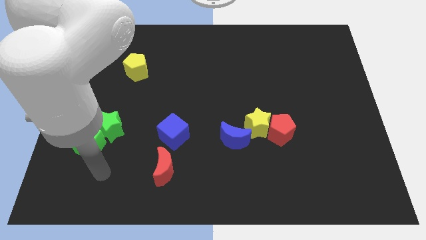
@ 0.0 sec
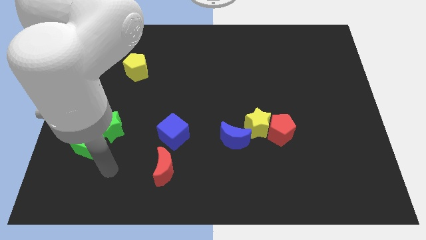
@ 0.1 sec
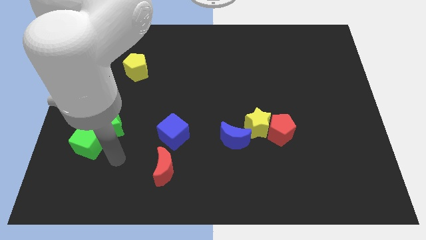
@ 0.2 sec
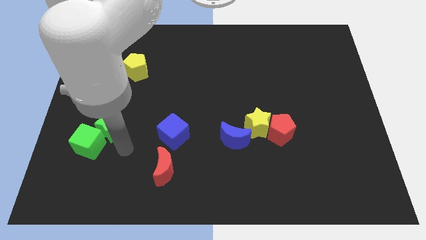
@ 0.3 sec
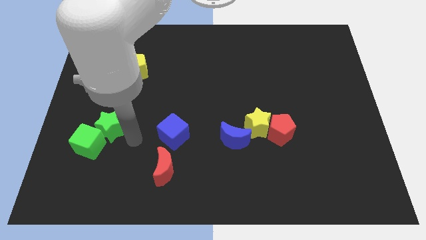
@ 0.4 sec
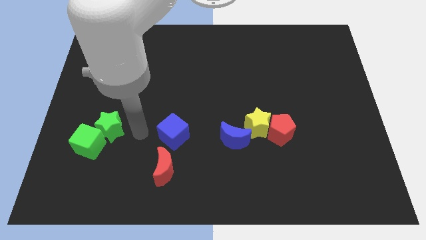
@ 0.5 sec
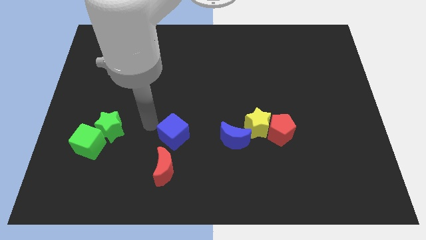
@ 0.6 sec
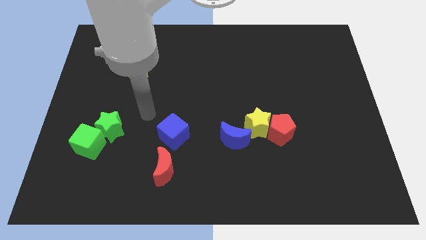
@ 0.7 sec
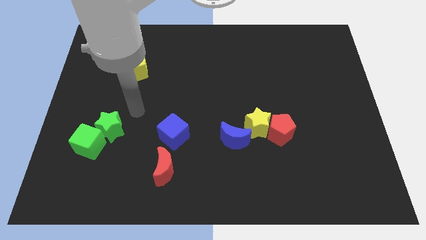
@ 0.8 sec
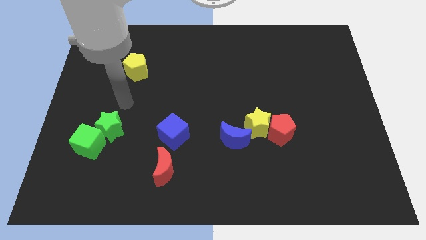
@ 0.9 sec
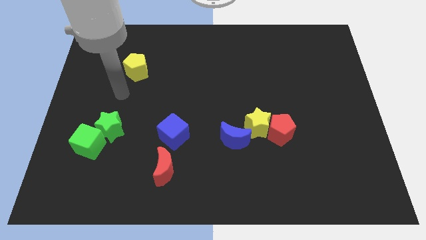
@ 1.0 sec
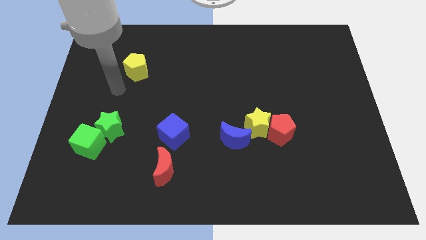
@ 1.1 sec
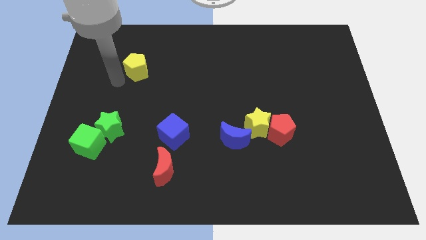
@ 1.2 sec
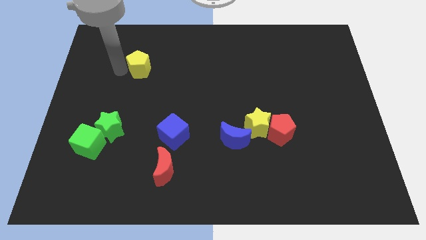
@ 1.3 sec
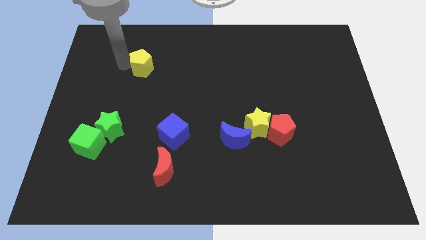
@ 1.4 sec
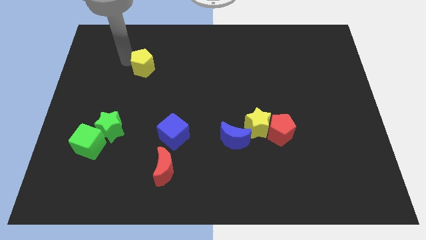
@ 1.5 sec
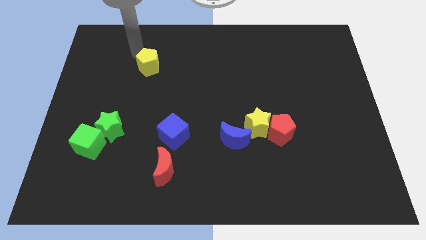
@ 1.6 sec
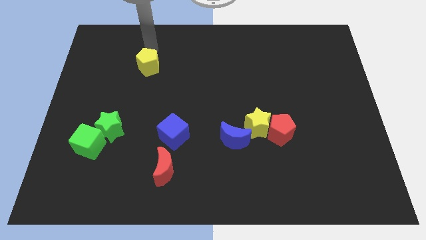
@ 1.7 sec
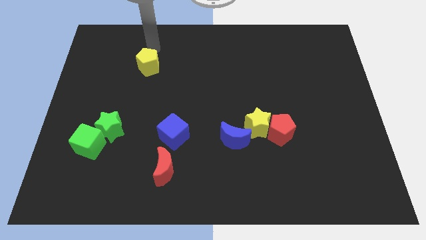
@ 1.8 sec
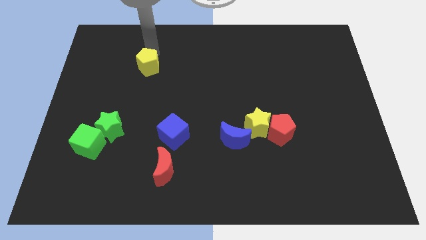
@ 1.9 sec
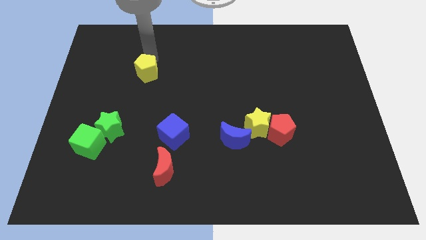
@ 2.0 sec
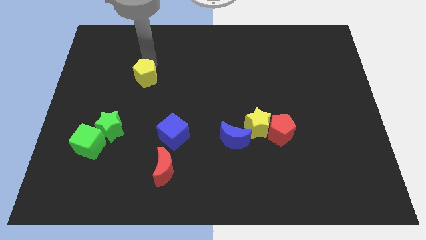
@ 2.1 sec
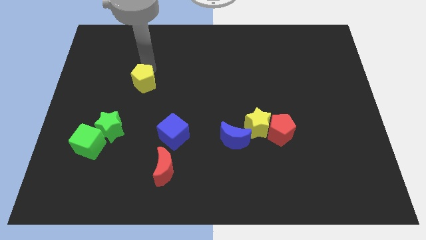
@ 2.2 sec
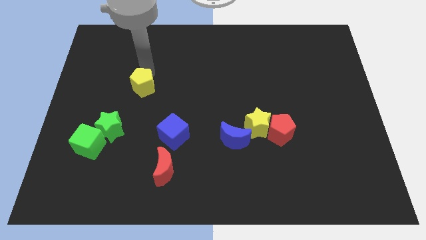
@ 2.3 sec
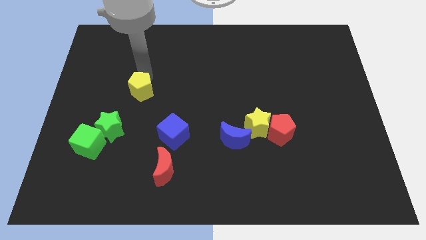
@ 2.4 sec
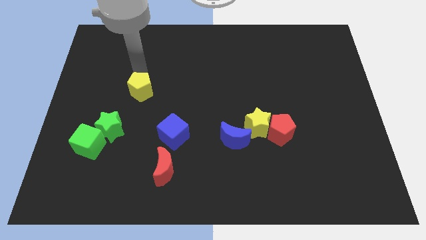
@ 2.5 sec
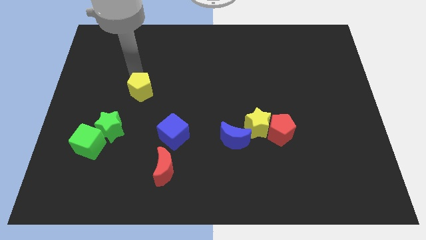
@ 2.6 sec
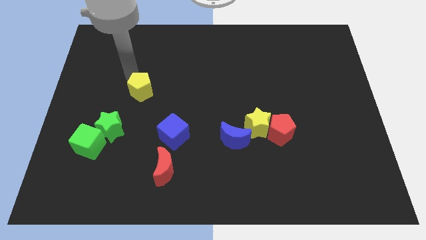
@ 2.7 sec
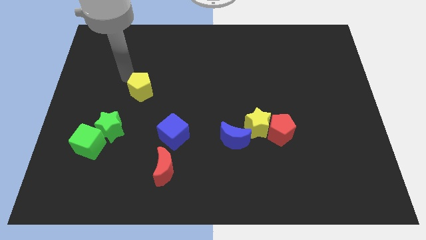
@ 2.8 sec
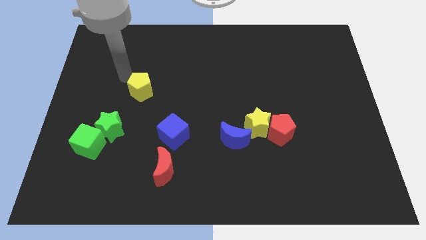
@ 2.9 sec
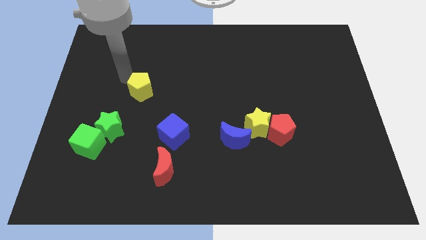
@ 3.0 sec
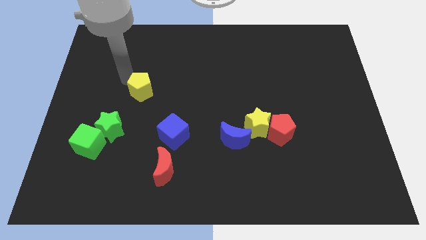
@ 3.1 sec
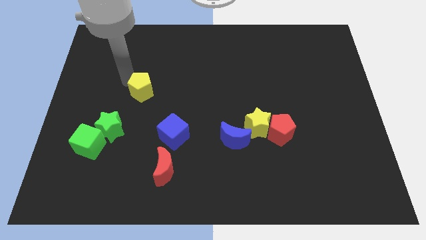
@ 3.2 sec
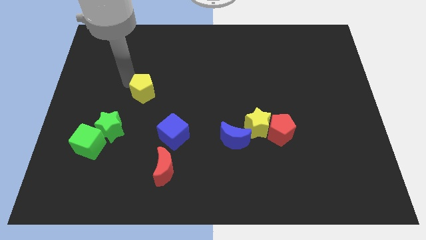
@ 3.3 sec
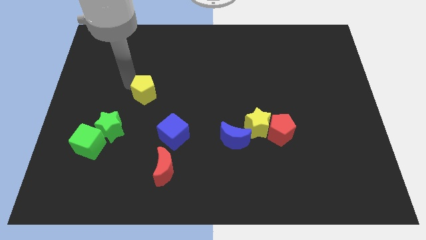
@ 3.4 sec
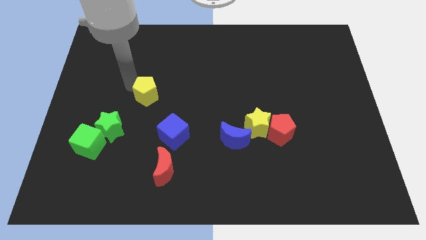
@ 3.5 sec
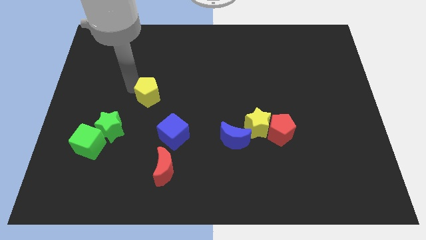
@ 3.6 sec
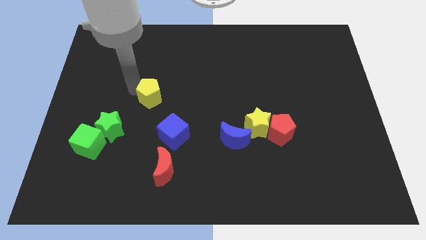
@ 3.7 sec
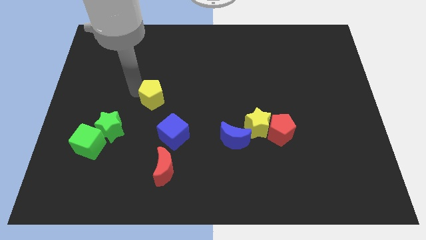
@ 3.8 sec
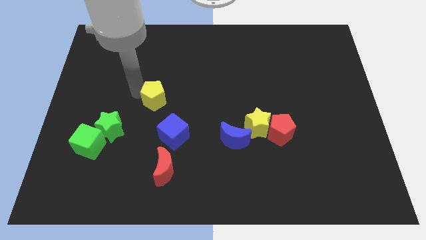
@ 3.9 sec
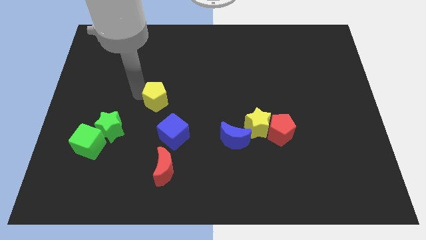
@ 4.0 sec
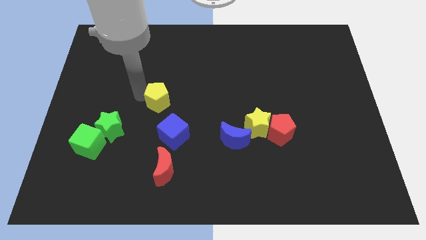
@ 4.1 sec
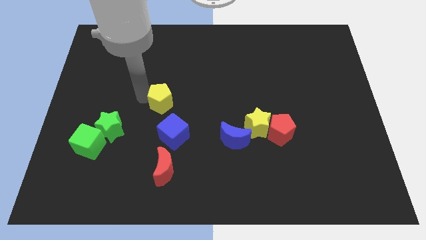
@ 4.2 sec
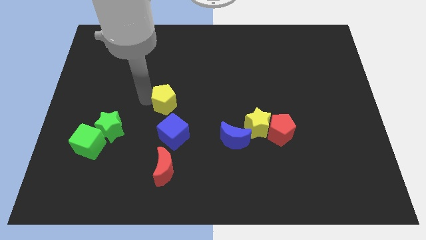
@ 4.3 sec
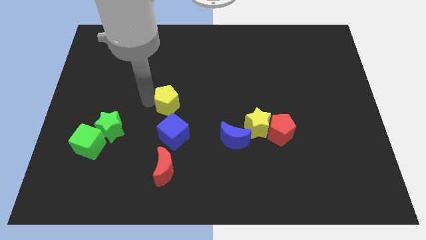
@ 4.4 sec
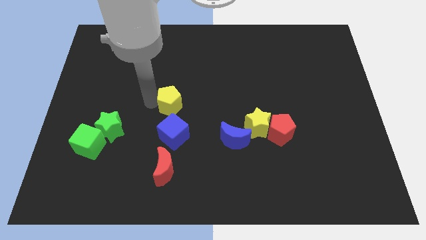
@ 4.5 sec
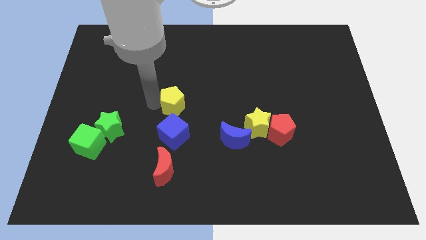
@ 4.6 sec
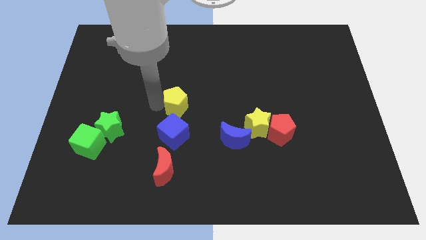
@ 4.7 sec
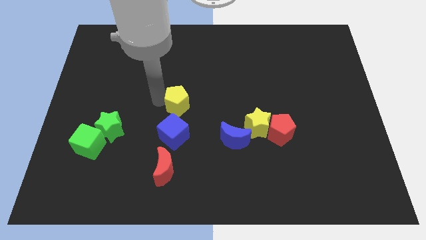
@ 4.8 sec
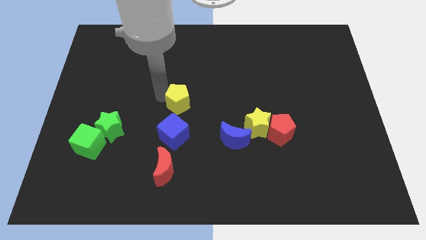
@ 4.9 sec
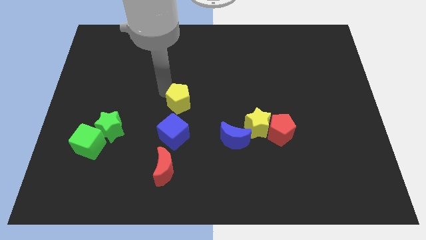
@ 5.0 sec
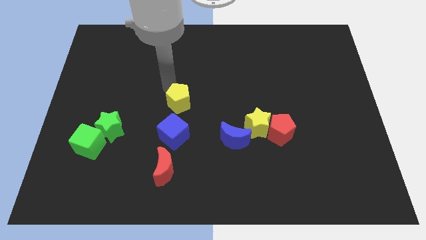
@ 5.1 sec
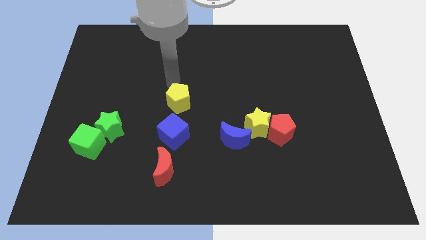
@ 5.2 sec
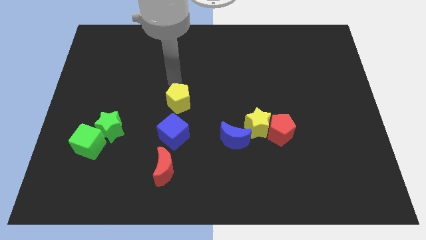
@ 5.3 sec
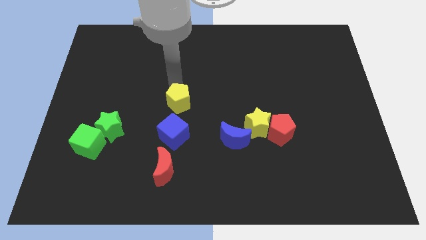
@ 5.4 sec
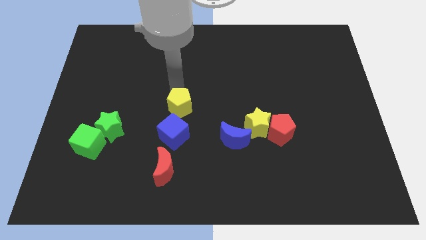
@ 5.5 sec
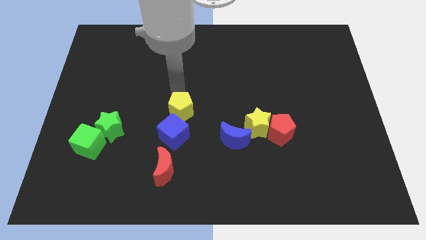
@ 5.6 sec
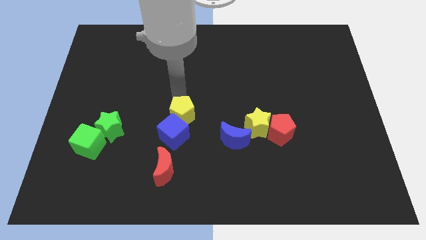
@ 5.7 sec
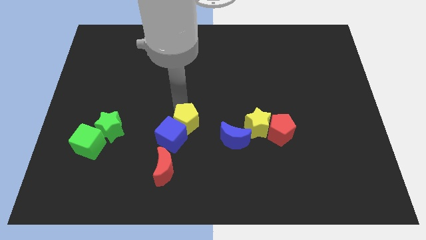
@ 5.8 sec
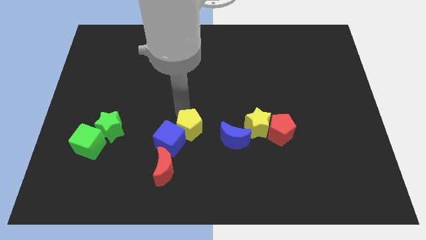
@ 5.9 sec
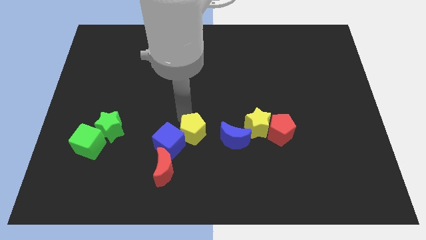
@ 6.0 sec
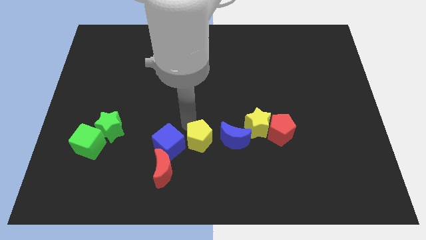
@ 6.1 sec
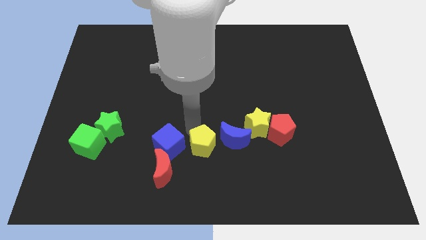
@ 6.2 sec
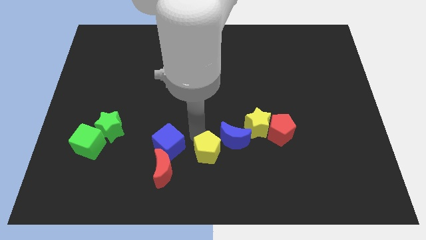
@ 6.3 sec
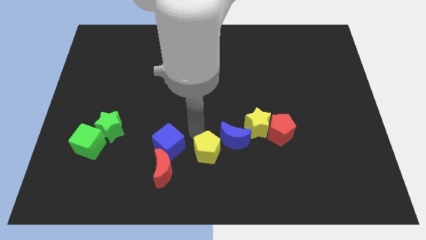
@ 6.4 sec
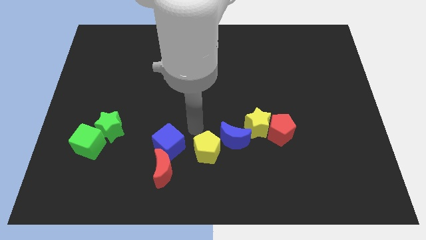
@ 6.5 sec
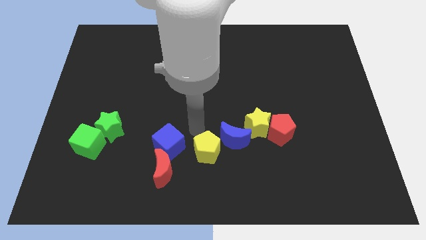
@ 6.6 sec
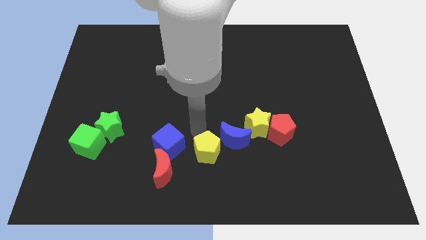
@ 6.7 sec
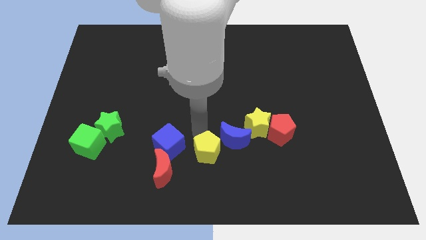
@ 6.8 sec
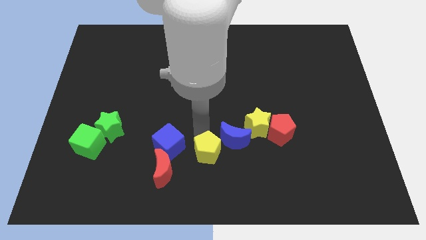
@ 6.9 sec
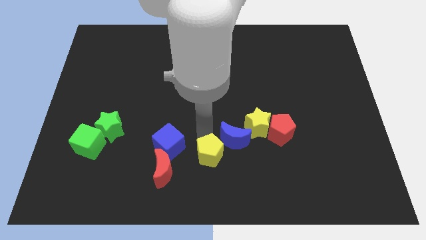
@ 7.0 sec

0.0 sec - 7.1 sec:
push the yellow pentagon to the bottom
